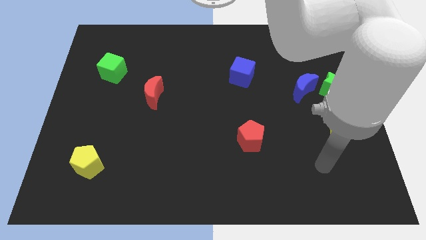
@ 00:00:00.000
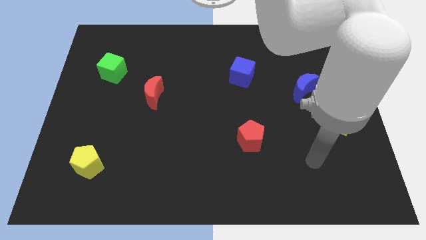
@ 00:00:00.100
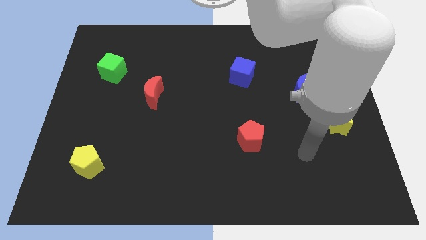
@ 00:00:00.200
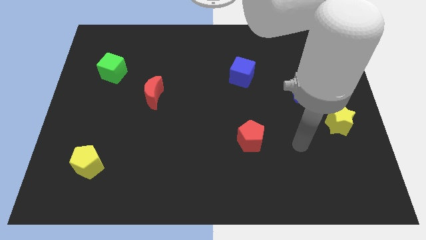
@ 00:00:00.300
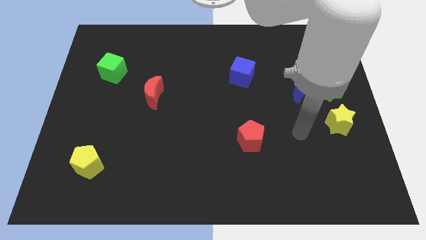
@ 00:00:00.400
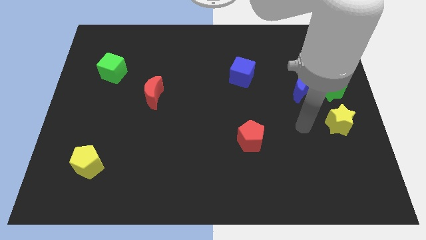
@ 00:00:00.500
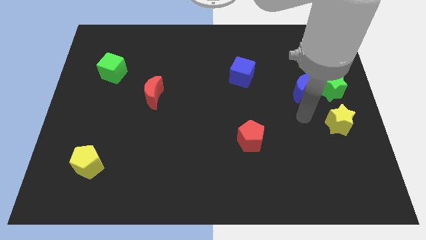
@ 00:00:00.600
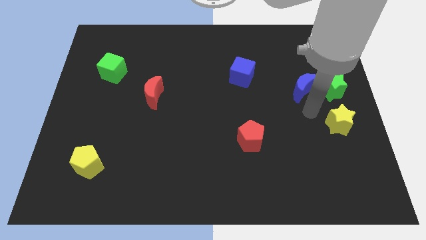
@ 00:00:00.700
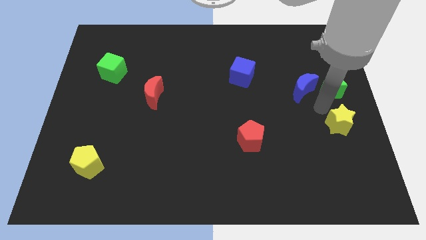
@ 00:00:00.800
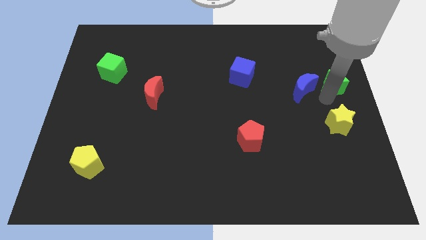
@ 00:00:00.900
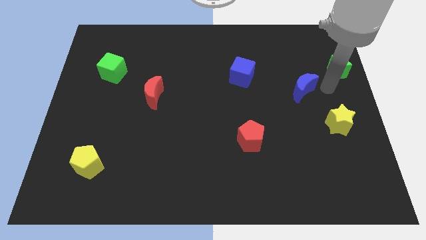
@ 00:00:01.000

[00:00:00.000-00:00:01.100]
pull the blue moon apart from the green star

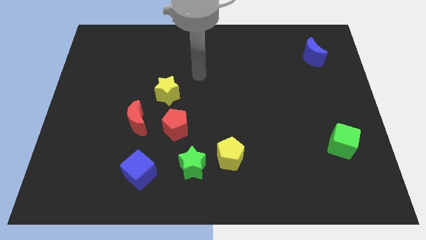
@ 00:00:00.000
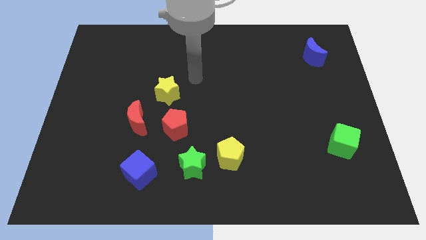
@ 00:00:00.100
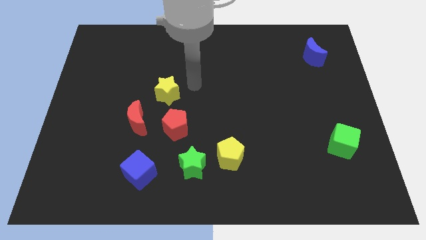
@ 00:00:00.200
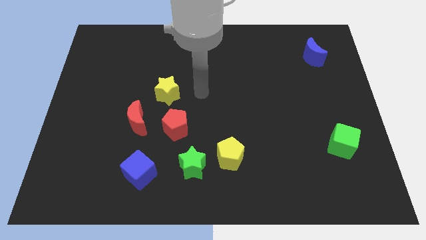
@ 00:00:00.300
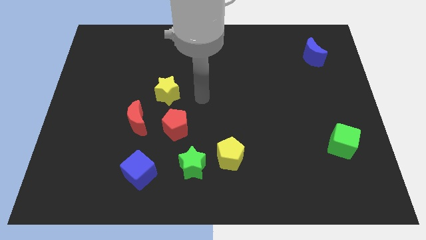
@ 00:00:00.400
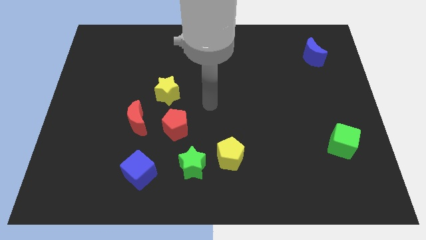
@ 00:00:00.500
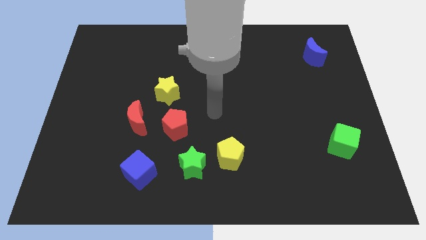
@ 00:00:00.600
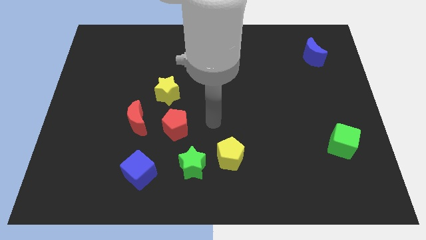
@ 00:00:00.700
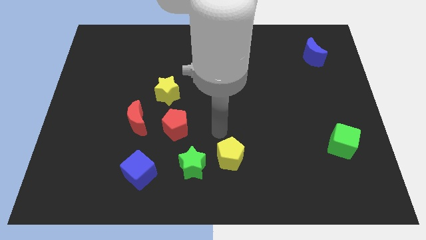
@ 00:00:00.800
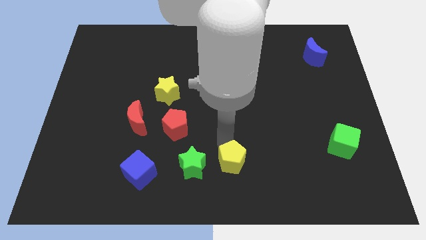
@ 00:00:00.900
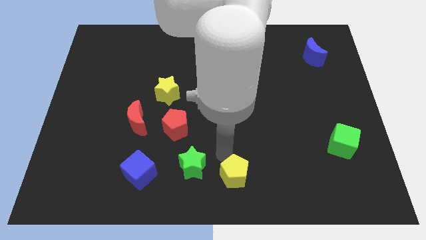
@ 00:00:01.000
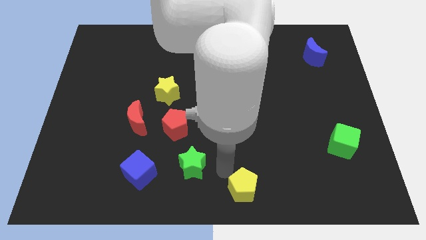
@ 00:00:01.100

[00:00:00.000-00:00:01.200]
separate the green star from the yellow pentagon

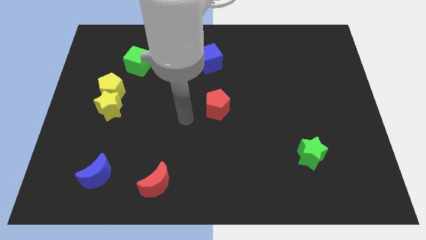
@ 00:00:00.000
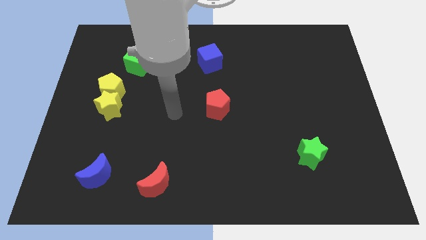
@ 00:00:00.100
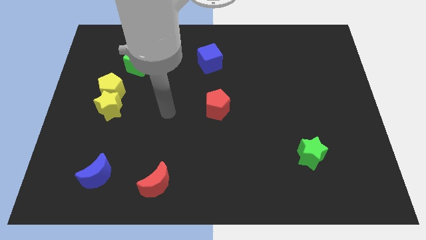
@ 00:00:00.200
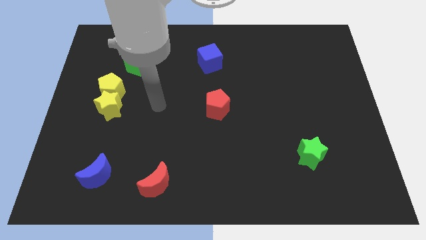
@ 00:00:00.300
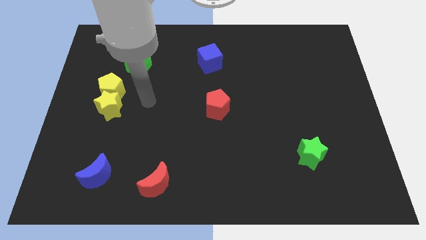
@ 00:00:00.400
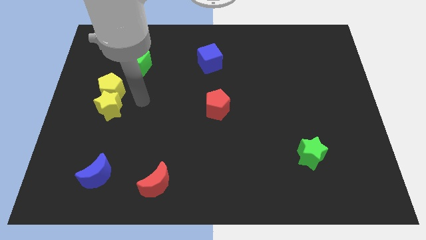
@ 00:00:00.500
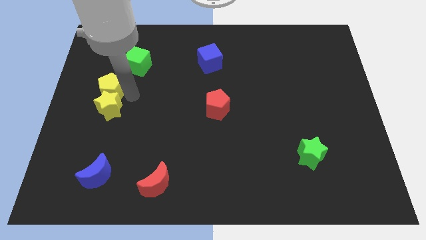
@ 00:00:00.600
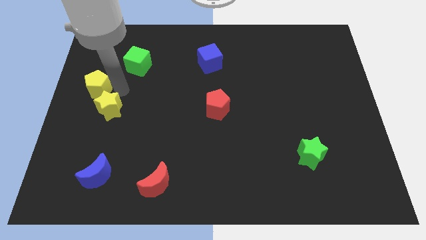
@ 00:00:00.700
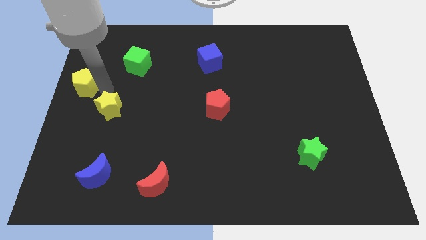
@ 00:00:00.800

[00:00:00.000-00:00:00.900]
move the yellow star away from the yellow pentagon

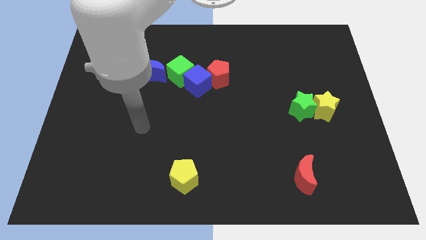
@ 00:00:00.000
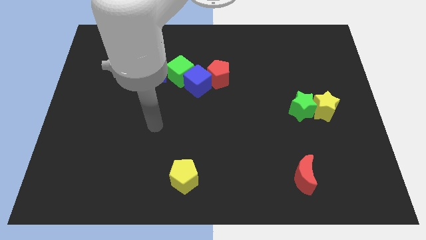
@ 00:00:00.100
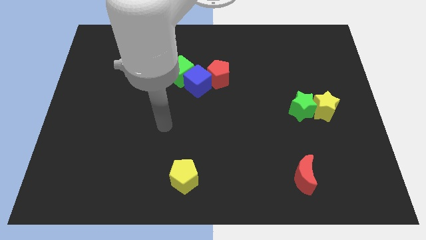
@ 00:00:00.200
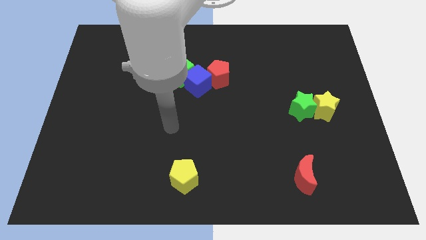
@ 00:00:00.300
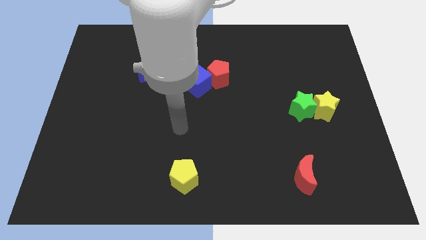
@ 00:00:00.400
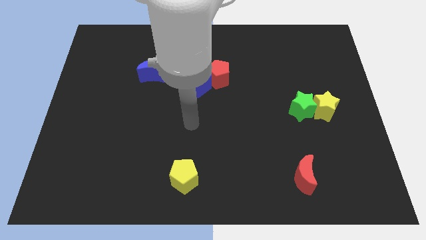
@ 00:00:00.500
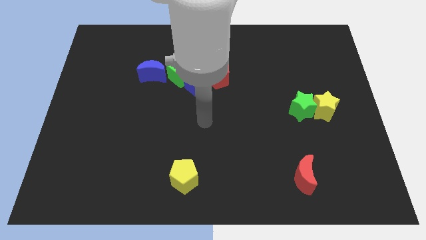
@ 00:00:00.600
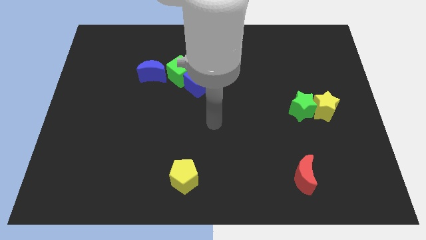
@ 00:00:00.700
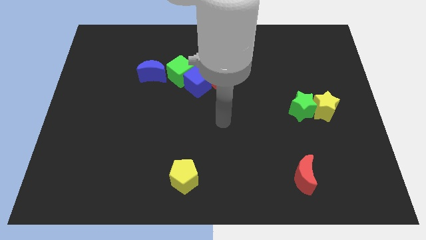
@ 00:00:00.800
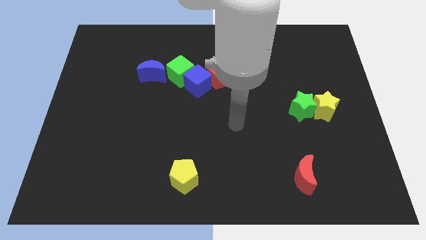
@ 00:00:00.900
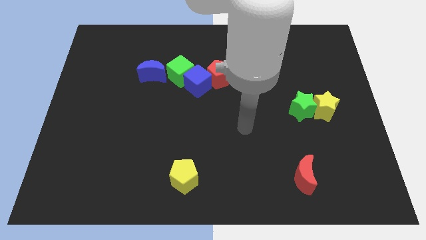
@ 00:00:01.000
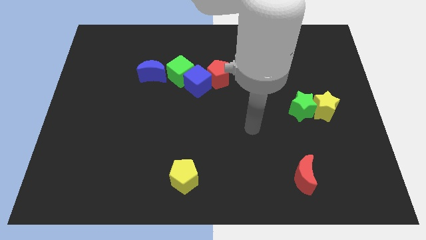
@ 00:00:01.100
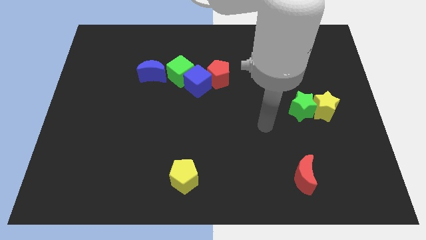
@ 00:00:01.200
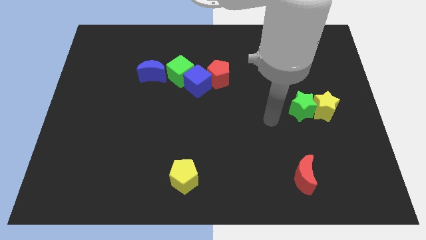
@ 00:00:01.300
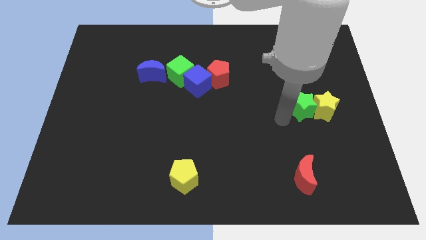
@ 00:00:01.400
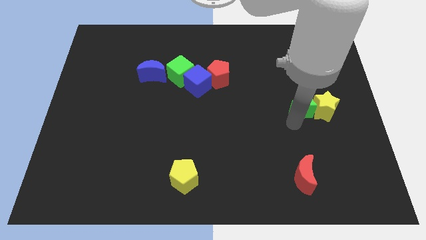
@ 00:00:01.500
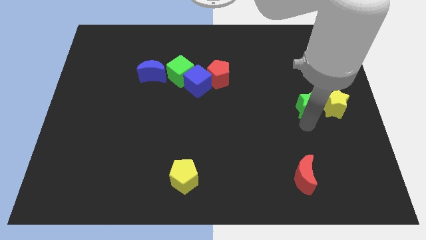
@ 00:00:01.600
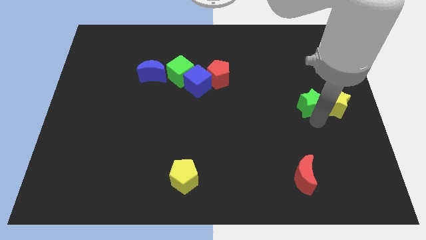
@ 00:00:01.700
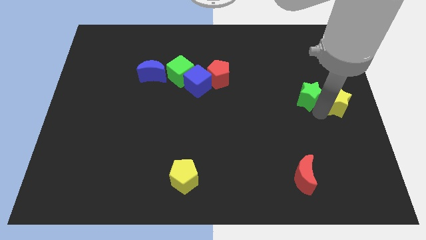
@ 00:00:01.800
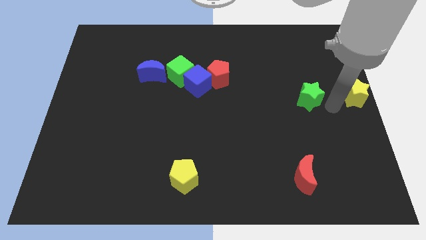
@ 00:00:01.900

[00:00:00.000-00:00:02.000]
pull the green star apart from the yellow star

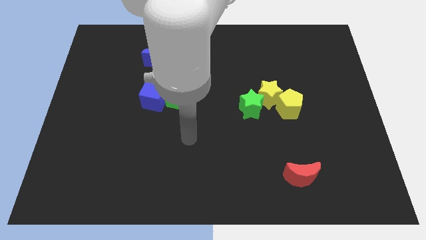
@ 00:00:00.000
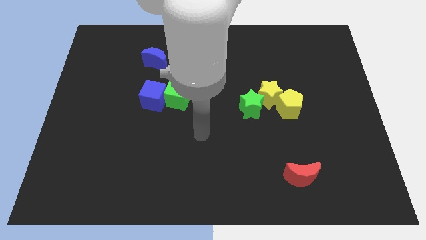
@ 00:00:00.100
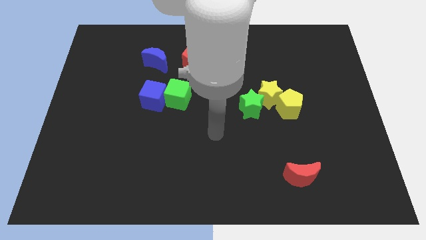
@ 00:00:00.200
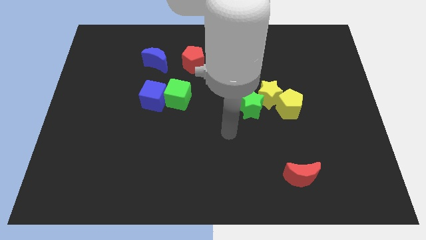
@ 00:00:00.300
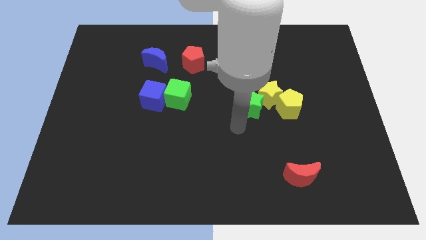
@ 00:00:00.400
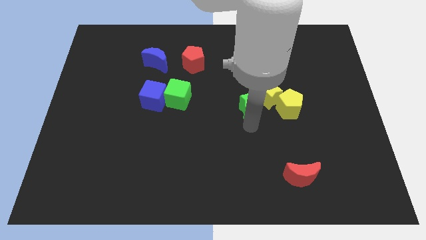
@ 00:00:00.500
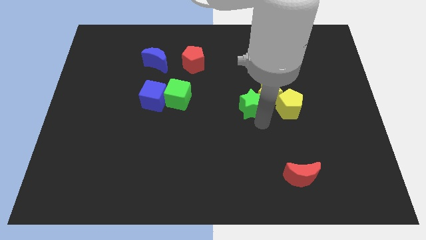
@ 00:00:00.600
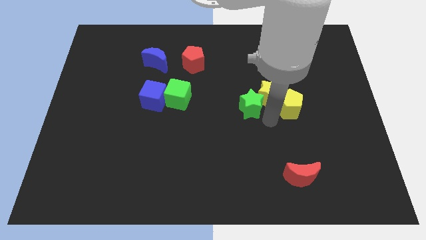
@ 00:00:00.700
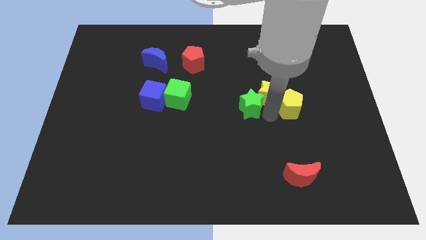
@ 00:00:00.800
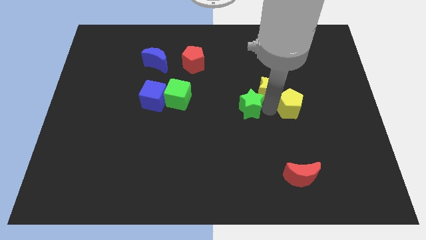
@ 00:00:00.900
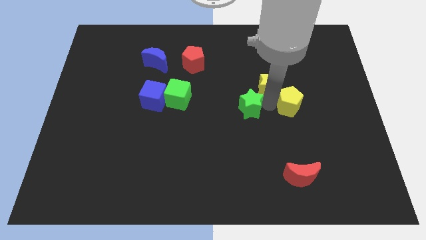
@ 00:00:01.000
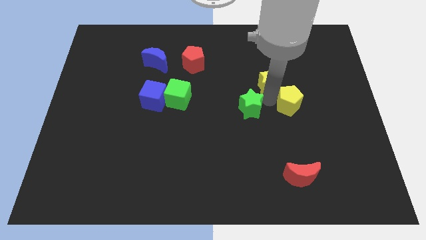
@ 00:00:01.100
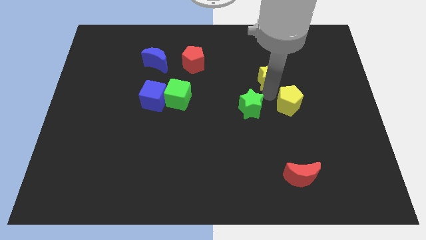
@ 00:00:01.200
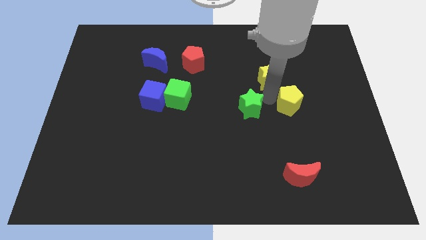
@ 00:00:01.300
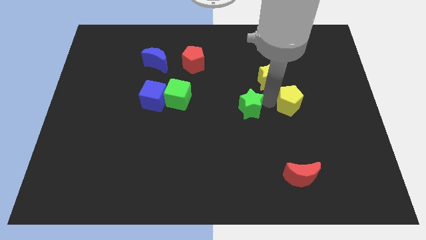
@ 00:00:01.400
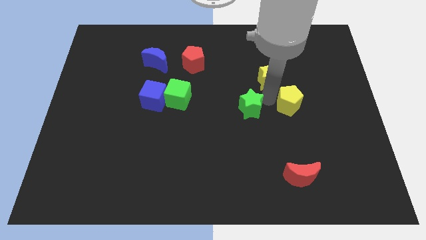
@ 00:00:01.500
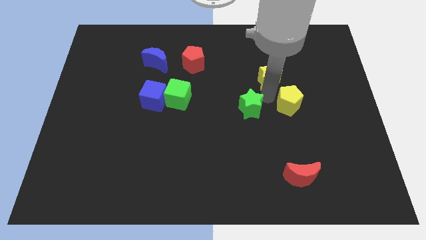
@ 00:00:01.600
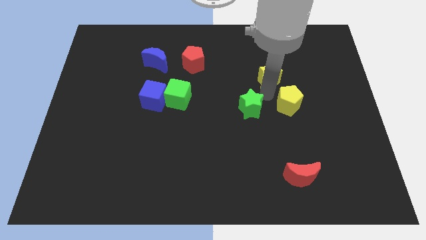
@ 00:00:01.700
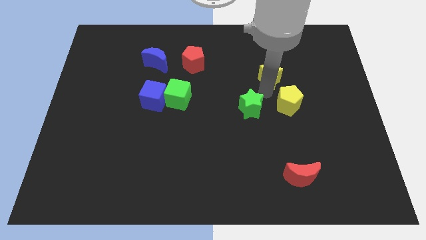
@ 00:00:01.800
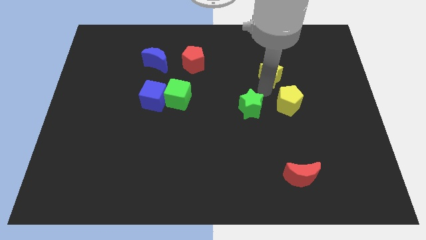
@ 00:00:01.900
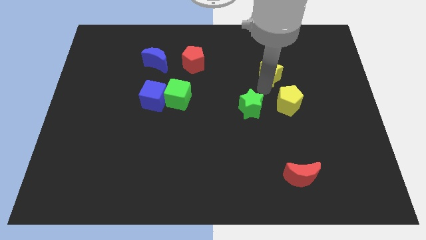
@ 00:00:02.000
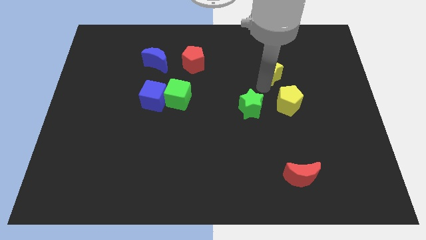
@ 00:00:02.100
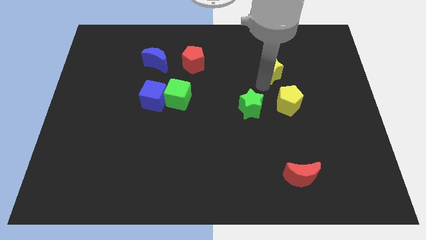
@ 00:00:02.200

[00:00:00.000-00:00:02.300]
separate the yellow star from the yellow pentagon and green star

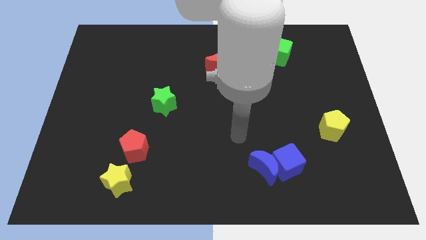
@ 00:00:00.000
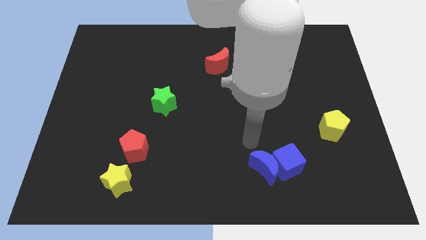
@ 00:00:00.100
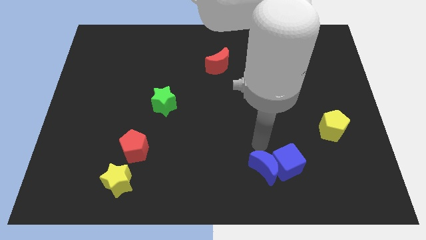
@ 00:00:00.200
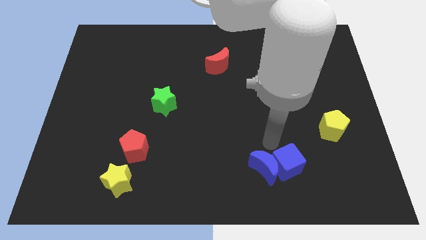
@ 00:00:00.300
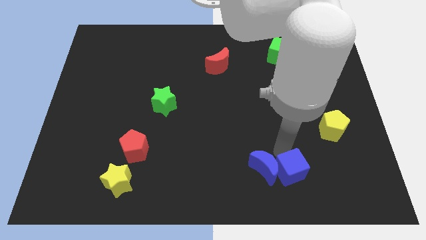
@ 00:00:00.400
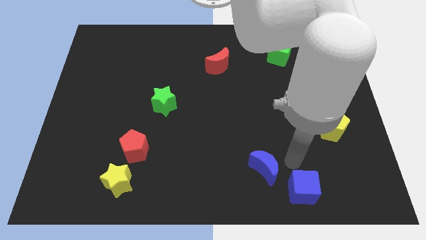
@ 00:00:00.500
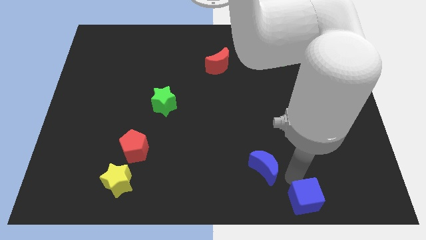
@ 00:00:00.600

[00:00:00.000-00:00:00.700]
separate the blue moon from the blue cube

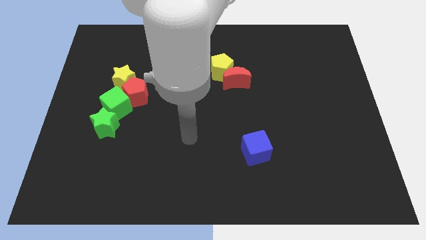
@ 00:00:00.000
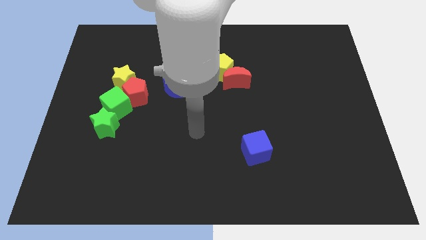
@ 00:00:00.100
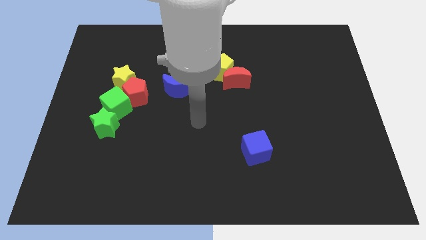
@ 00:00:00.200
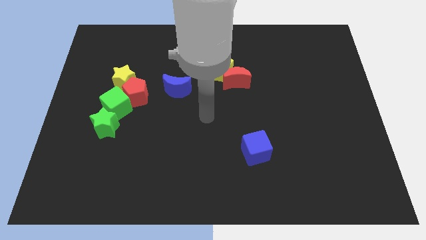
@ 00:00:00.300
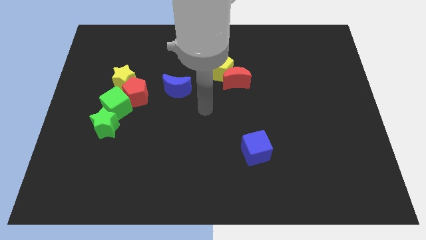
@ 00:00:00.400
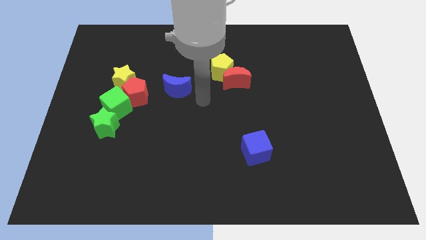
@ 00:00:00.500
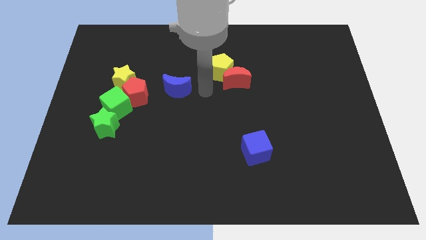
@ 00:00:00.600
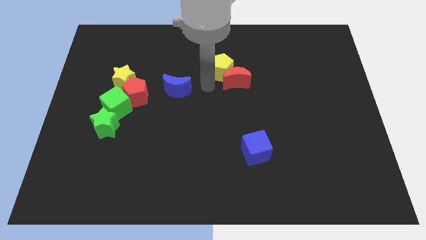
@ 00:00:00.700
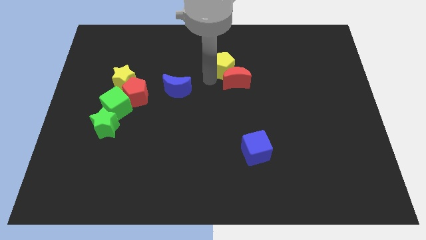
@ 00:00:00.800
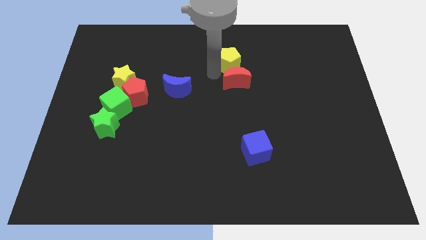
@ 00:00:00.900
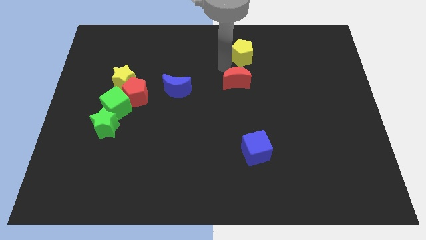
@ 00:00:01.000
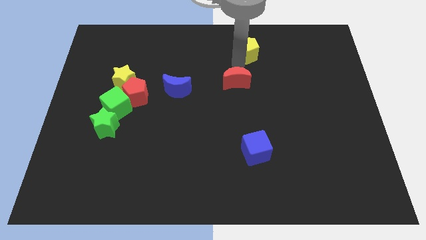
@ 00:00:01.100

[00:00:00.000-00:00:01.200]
pull the red moon apart from the yellow pentagon
